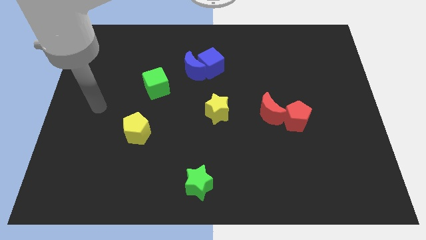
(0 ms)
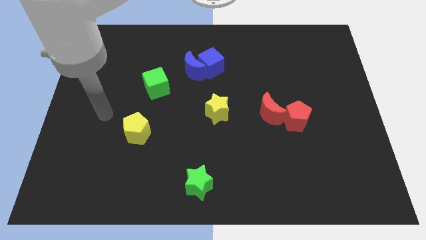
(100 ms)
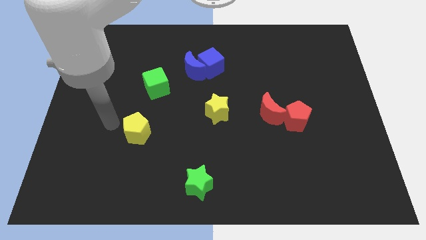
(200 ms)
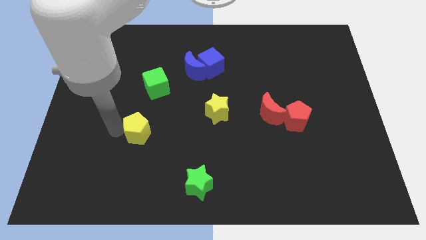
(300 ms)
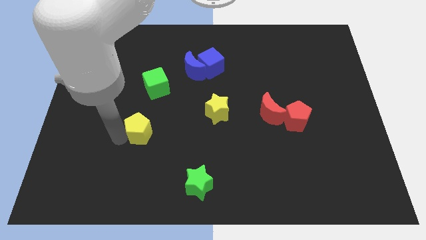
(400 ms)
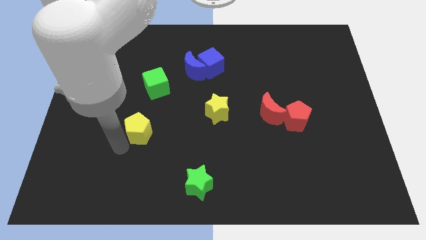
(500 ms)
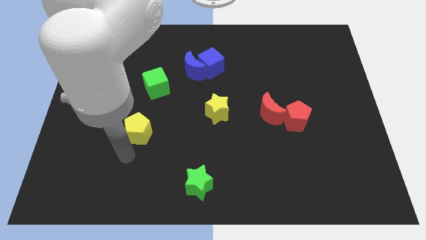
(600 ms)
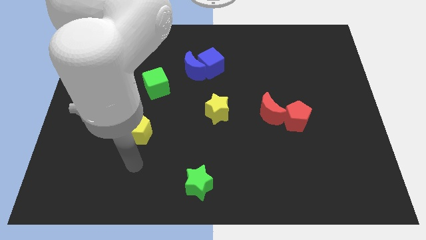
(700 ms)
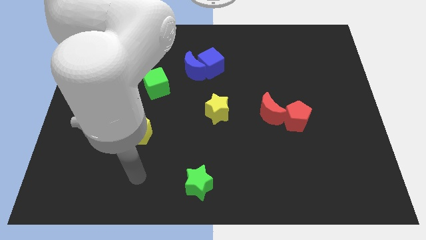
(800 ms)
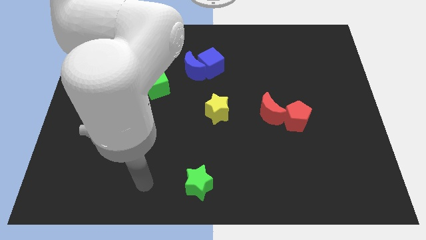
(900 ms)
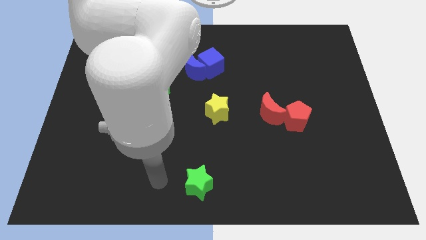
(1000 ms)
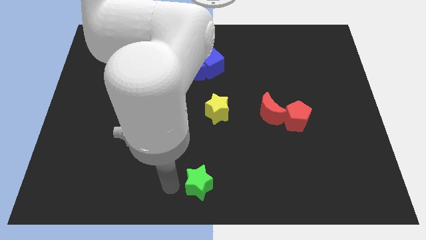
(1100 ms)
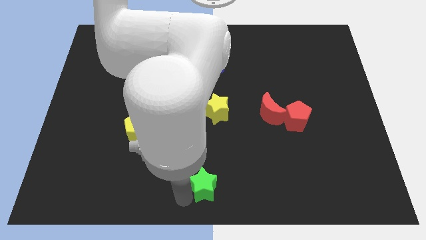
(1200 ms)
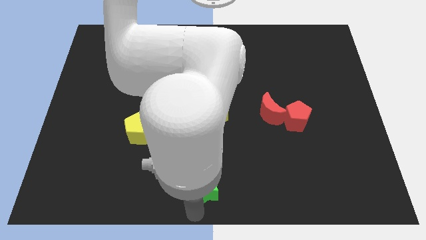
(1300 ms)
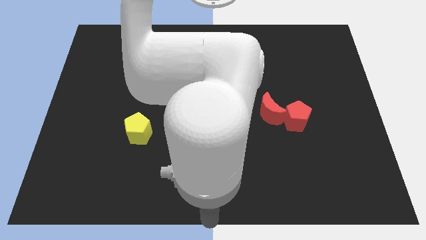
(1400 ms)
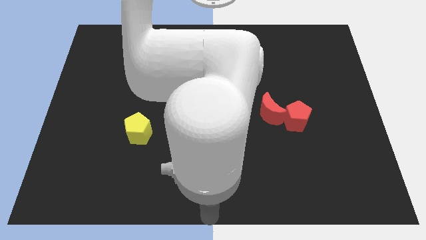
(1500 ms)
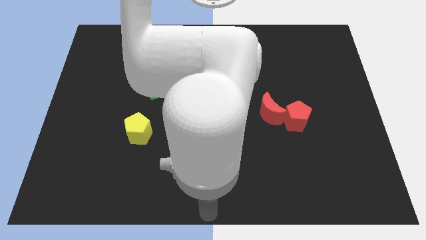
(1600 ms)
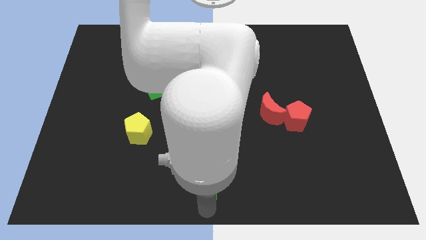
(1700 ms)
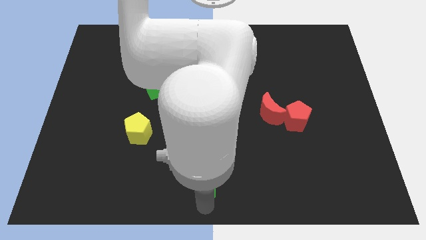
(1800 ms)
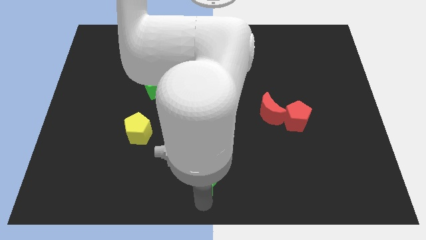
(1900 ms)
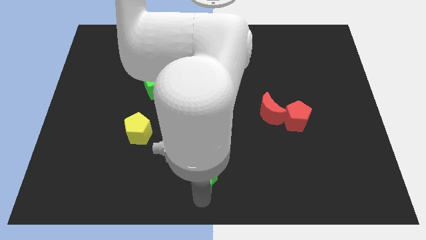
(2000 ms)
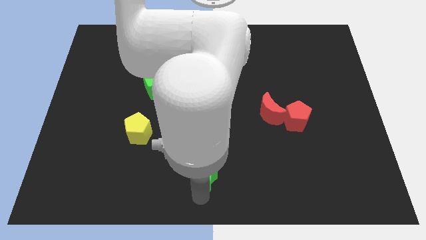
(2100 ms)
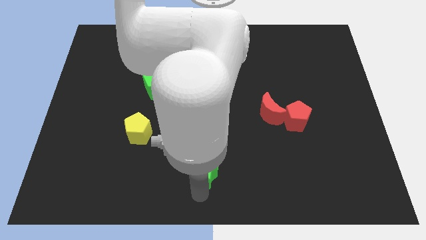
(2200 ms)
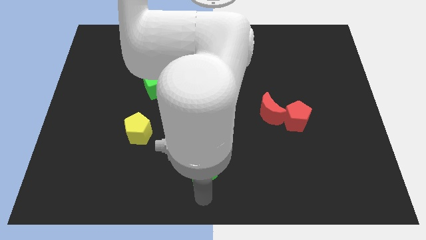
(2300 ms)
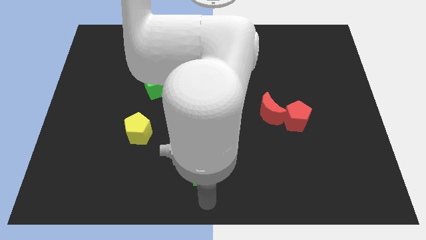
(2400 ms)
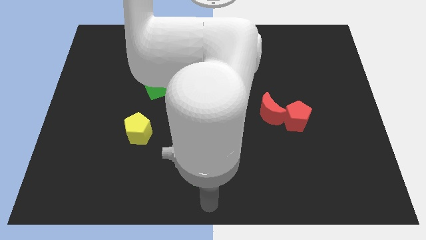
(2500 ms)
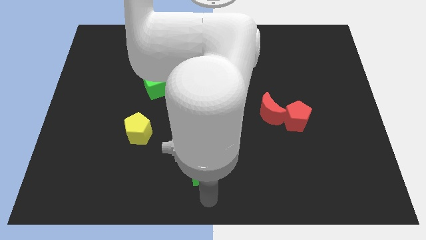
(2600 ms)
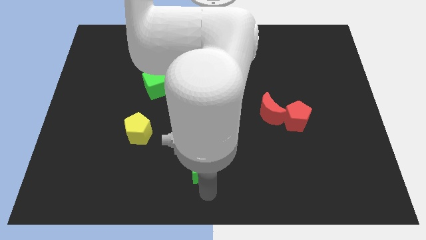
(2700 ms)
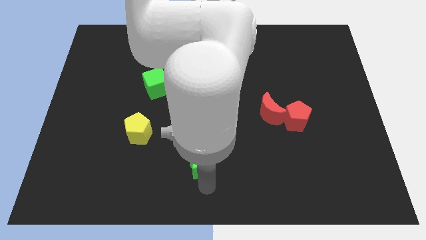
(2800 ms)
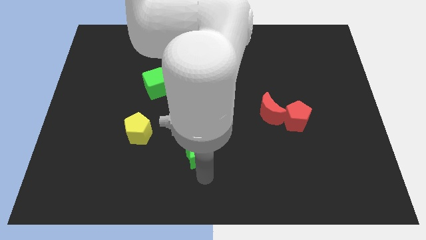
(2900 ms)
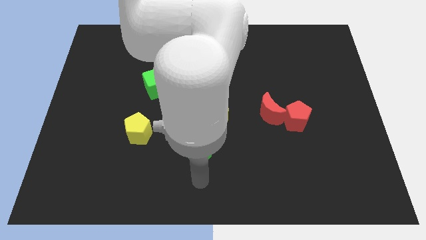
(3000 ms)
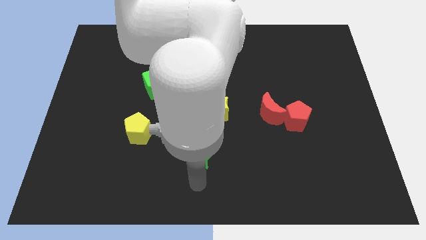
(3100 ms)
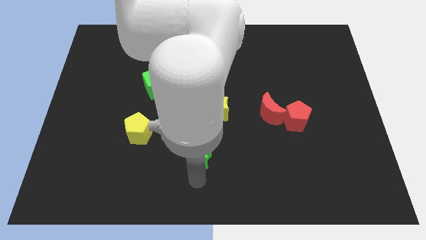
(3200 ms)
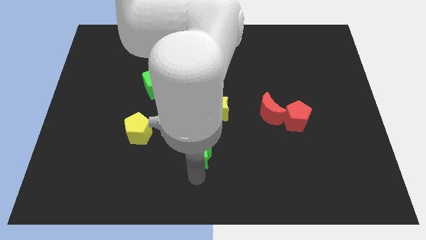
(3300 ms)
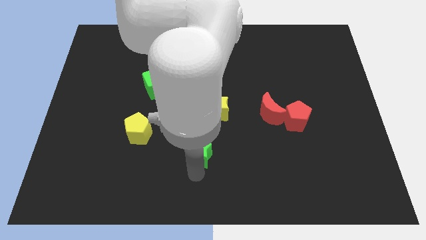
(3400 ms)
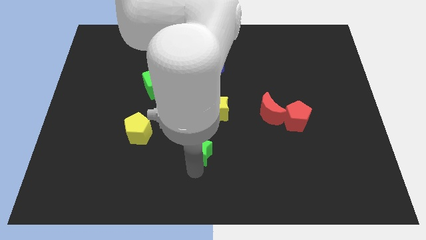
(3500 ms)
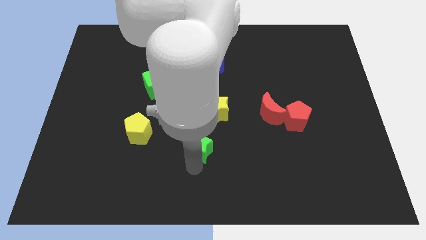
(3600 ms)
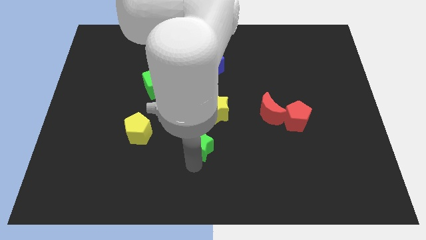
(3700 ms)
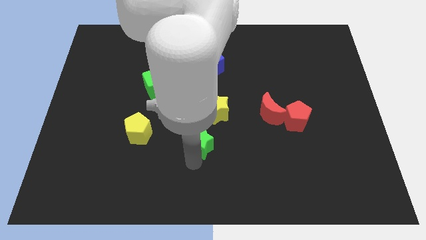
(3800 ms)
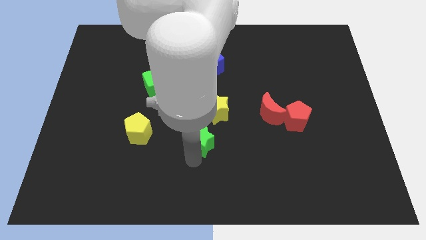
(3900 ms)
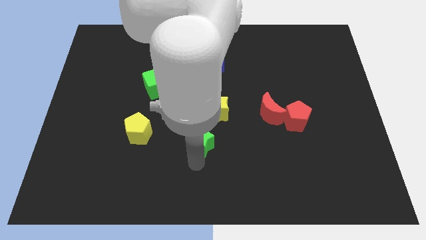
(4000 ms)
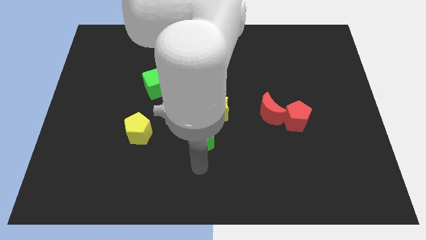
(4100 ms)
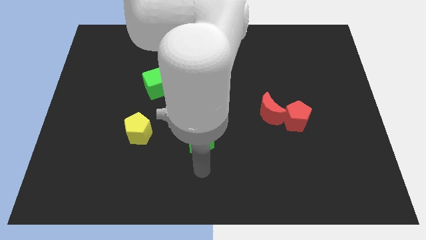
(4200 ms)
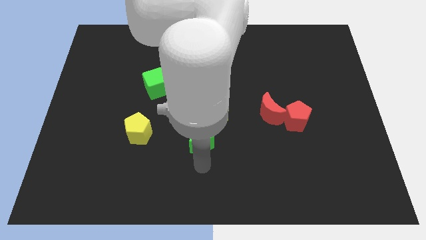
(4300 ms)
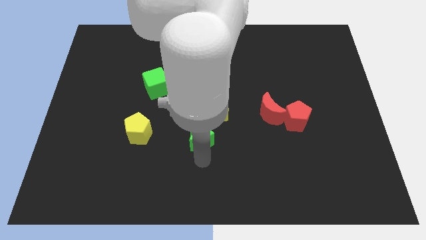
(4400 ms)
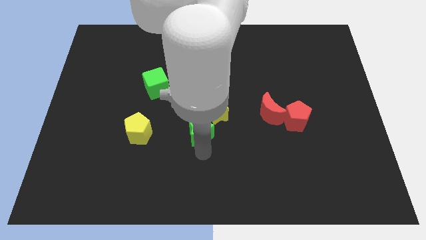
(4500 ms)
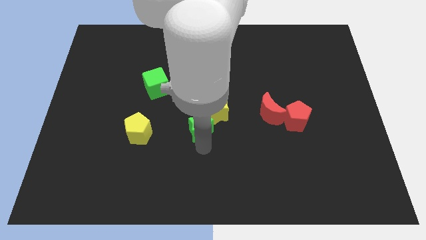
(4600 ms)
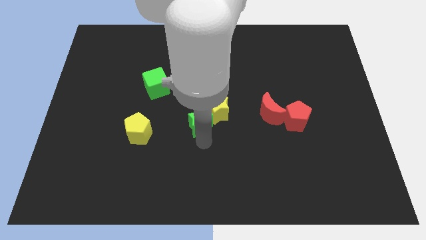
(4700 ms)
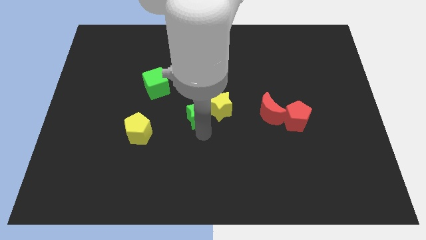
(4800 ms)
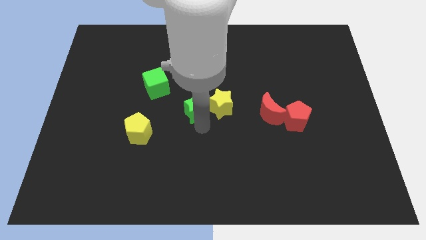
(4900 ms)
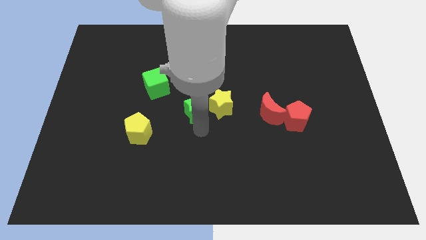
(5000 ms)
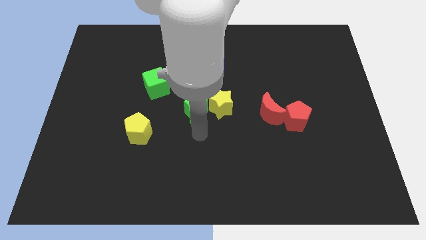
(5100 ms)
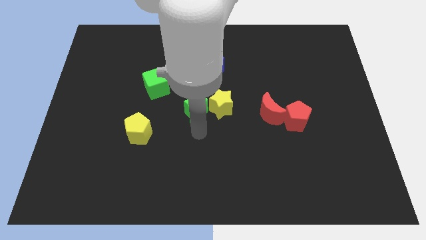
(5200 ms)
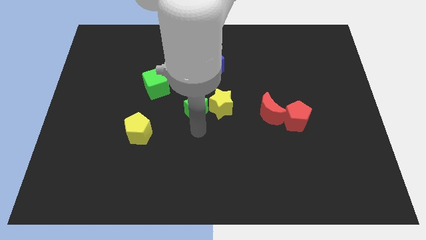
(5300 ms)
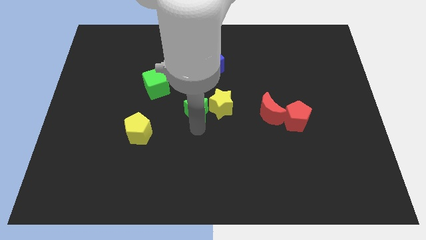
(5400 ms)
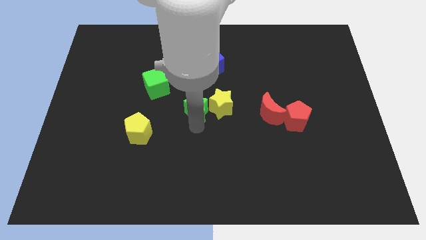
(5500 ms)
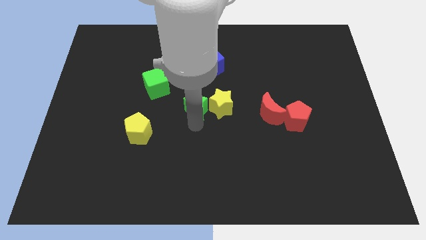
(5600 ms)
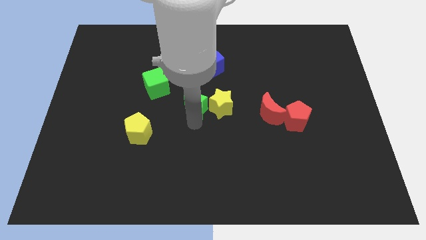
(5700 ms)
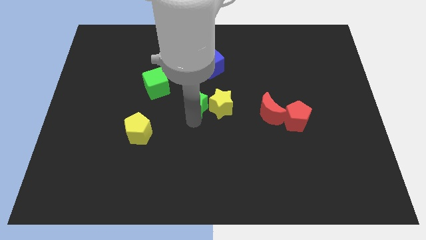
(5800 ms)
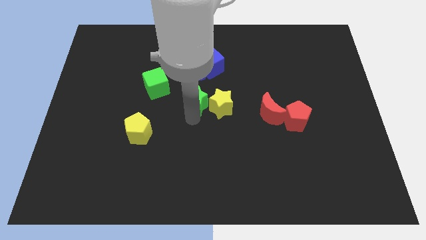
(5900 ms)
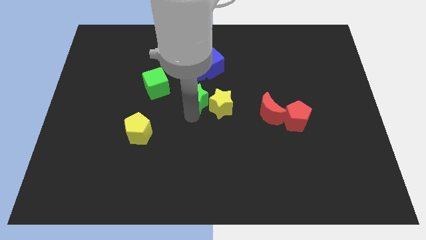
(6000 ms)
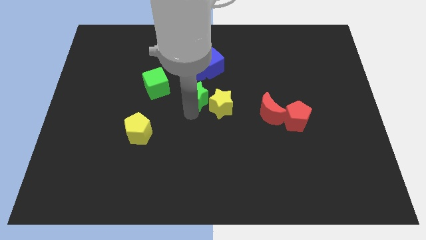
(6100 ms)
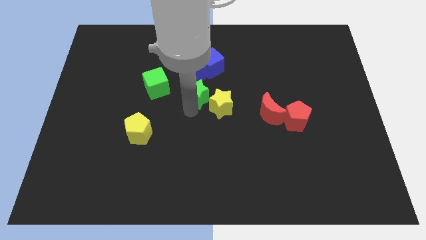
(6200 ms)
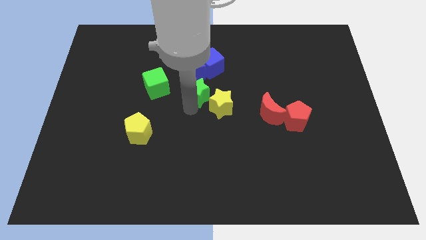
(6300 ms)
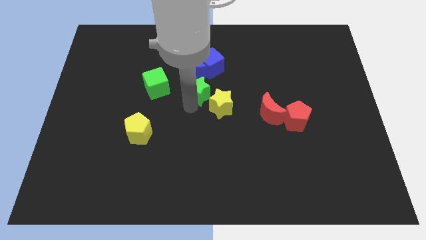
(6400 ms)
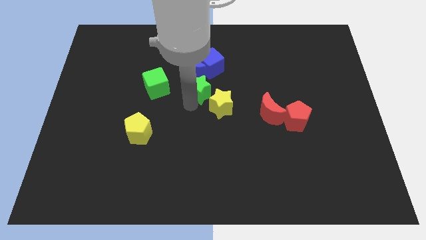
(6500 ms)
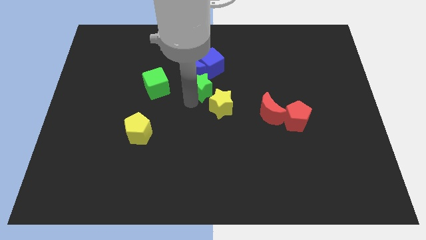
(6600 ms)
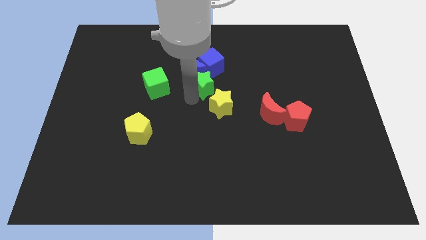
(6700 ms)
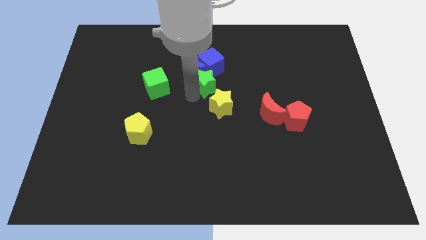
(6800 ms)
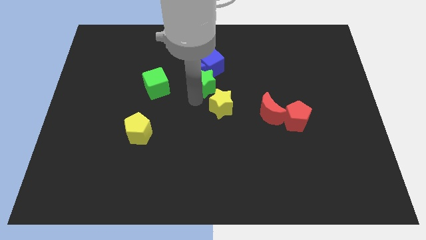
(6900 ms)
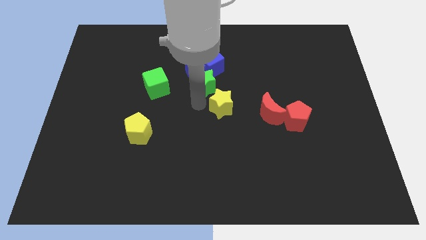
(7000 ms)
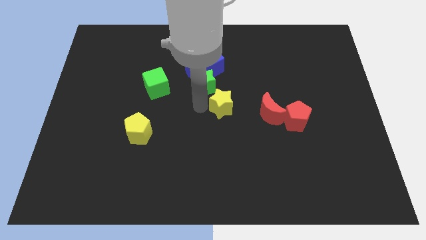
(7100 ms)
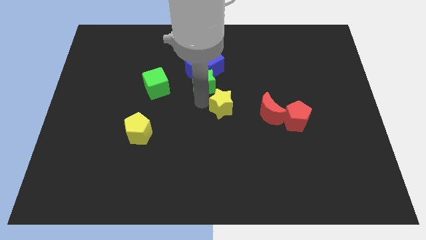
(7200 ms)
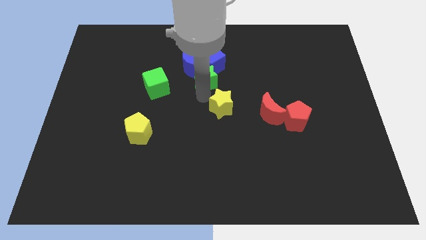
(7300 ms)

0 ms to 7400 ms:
move the green star next to the blue cube
